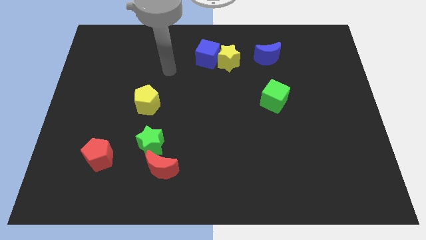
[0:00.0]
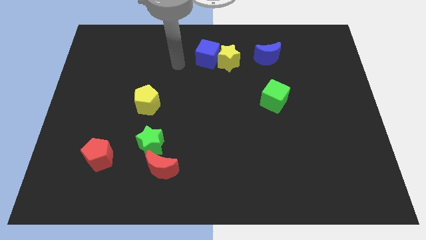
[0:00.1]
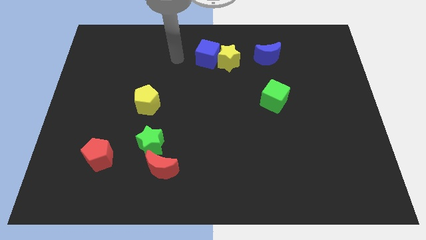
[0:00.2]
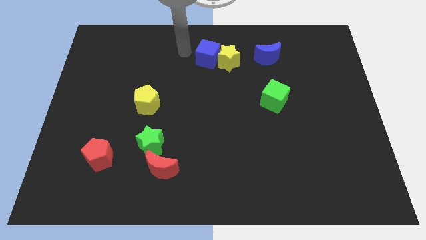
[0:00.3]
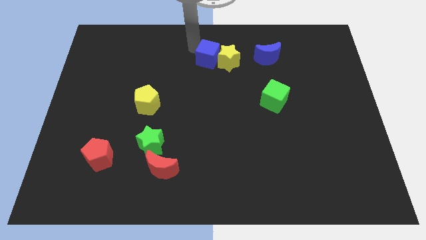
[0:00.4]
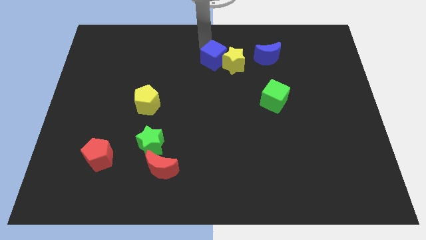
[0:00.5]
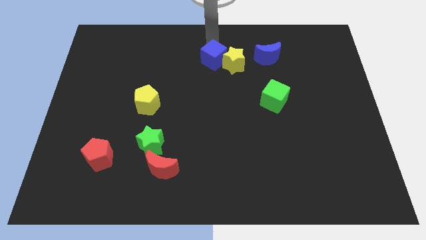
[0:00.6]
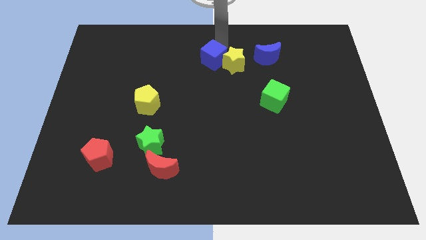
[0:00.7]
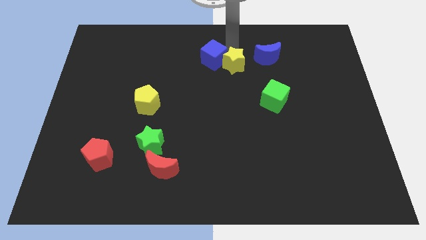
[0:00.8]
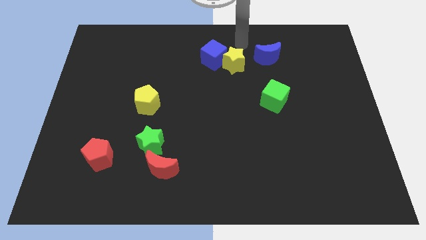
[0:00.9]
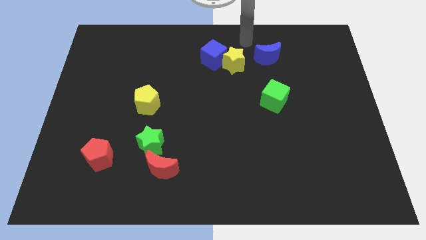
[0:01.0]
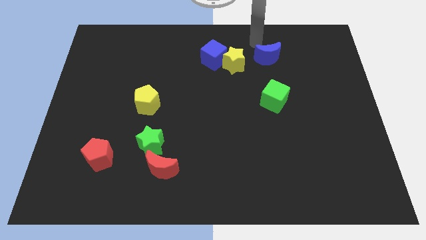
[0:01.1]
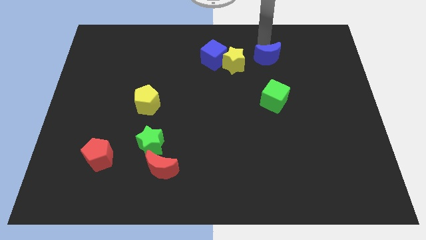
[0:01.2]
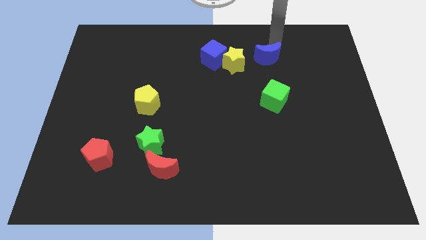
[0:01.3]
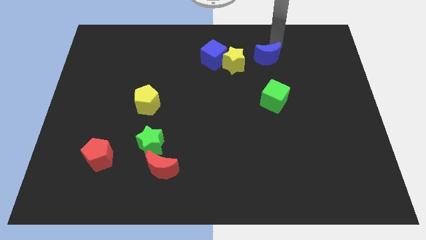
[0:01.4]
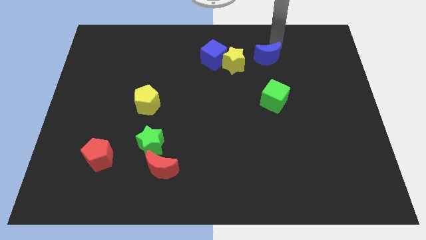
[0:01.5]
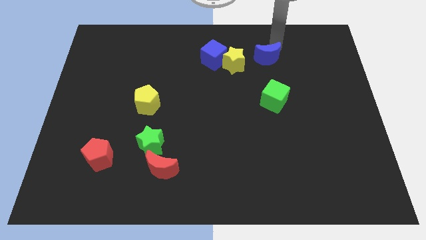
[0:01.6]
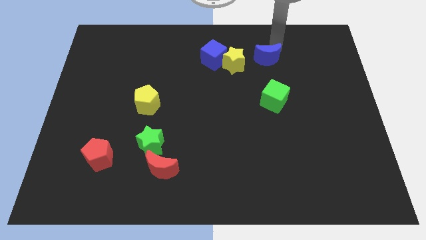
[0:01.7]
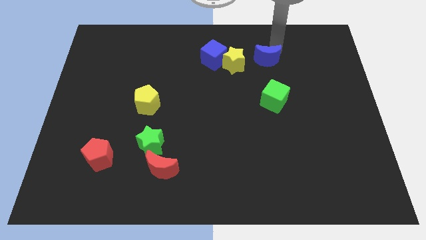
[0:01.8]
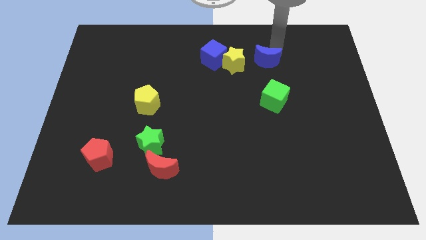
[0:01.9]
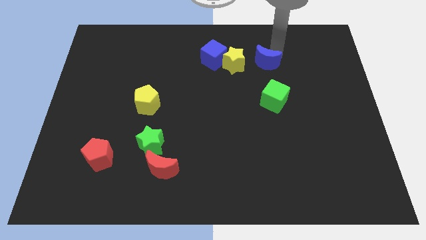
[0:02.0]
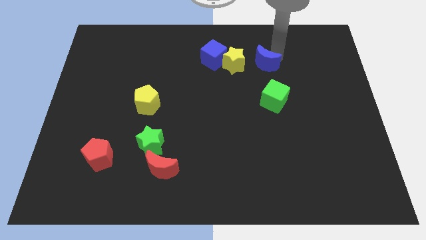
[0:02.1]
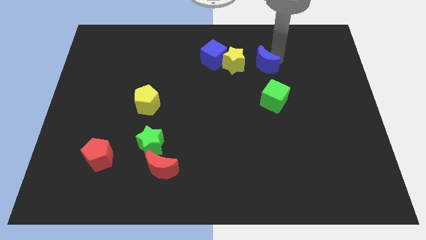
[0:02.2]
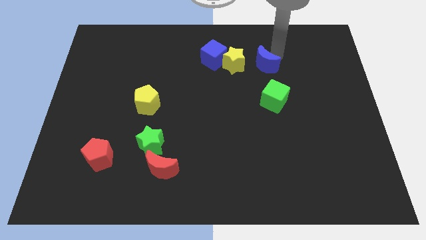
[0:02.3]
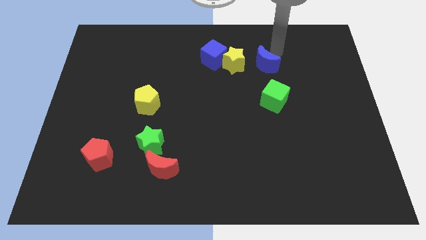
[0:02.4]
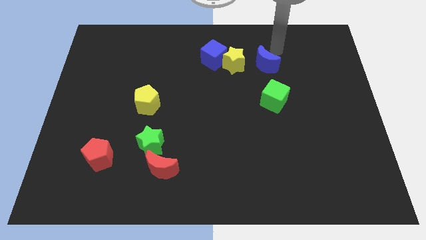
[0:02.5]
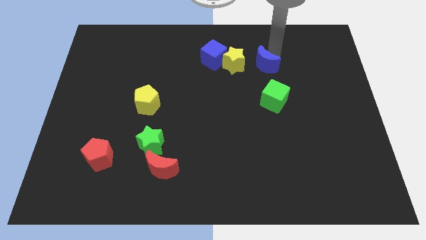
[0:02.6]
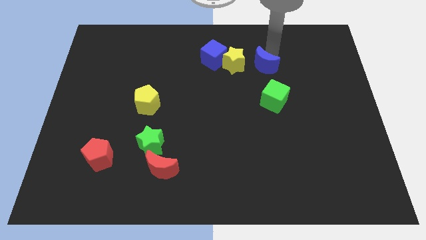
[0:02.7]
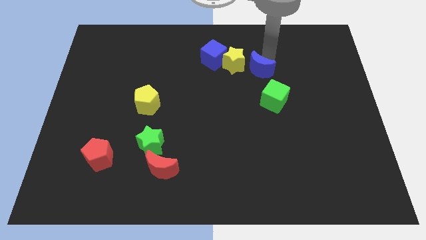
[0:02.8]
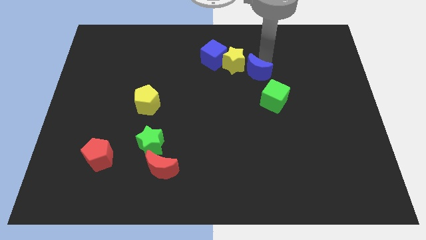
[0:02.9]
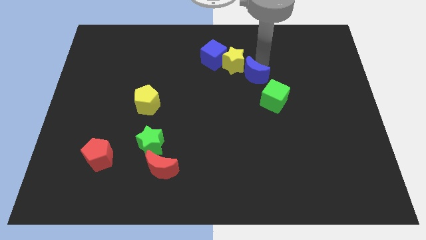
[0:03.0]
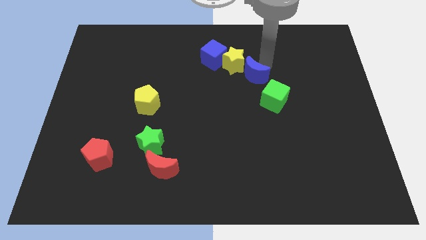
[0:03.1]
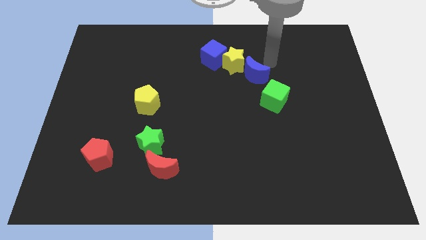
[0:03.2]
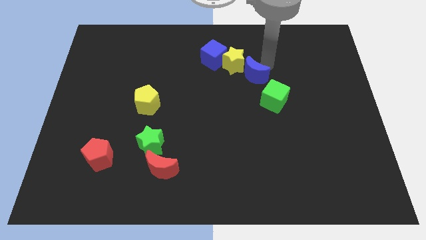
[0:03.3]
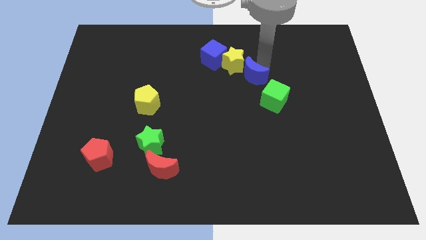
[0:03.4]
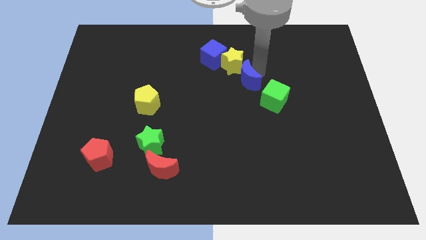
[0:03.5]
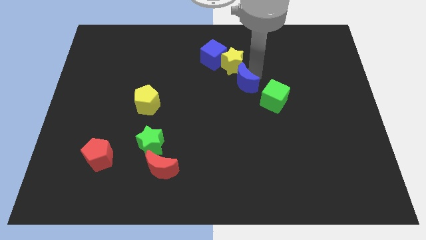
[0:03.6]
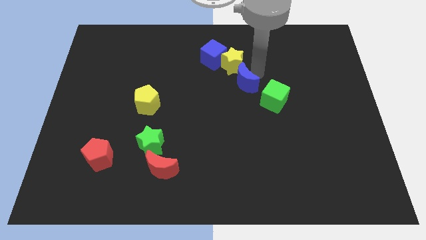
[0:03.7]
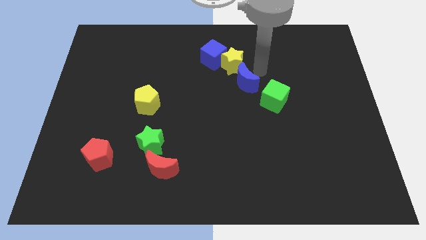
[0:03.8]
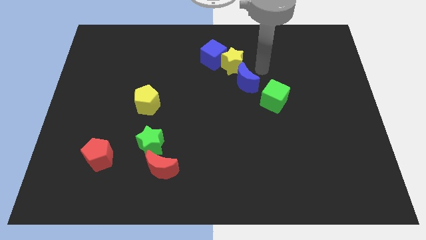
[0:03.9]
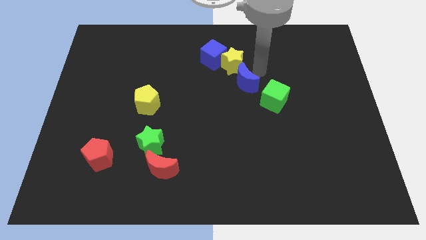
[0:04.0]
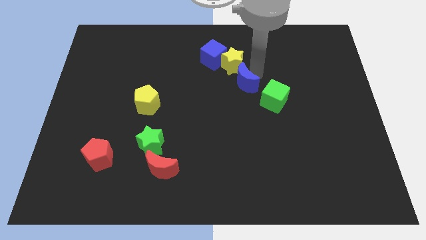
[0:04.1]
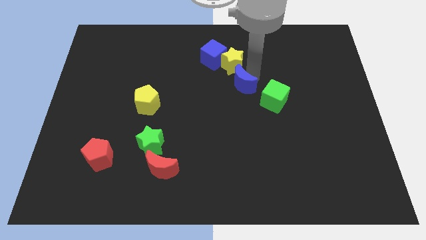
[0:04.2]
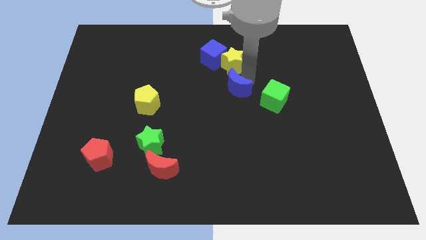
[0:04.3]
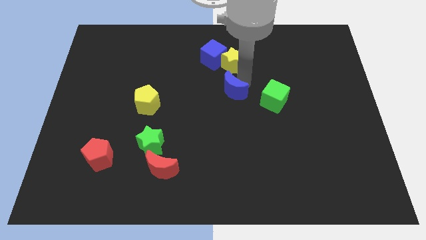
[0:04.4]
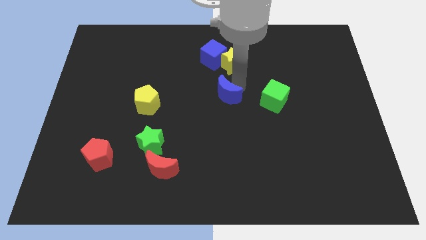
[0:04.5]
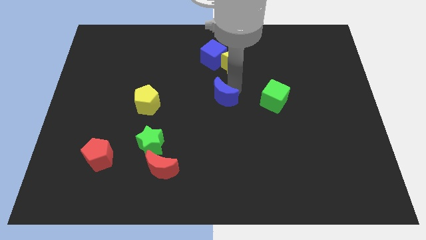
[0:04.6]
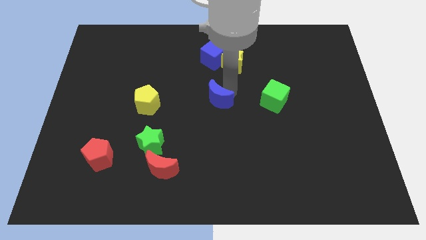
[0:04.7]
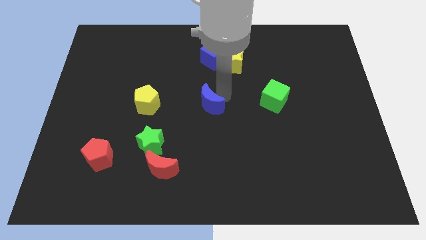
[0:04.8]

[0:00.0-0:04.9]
slide the blue moon diagonally down and to the left

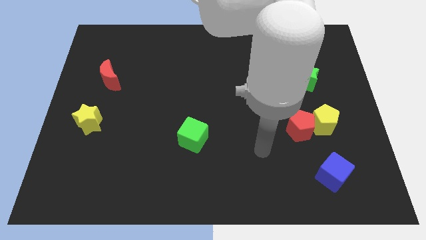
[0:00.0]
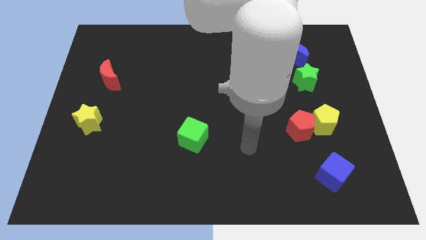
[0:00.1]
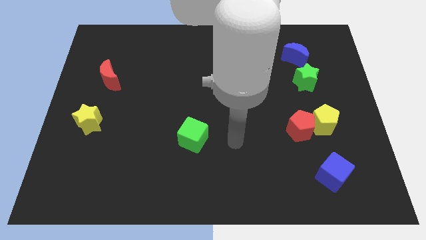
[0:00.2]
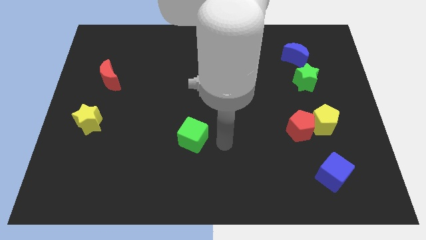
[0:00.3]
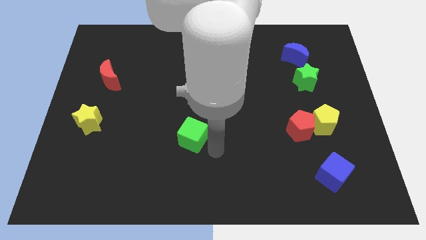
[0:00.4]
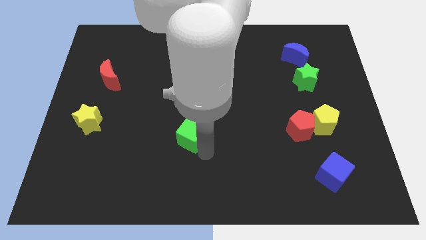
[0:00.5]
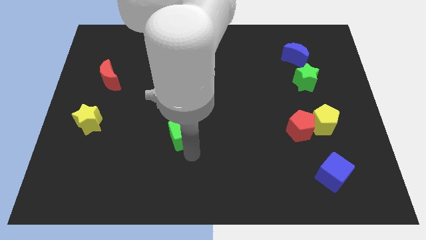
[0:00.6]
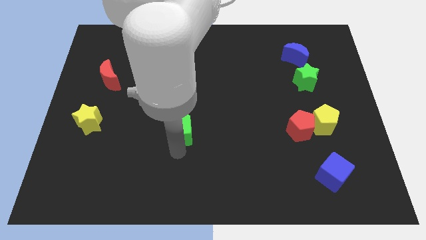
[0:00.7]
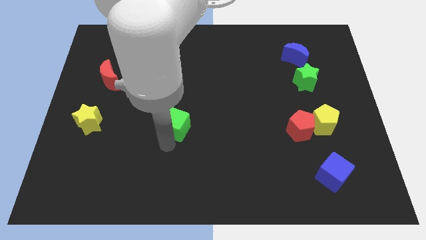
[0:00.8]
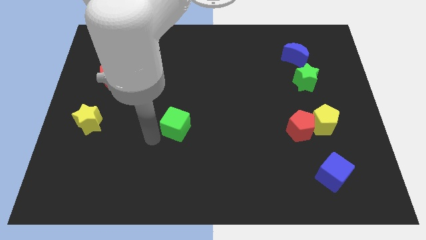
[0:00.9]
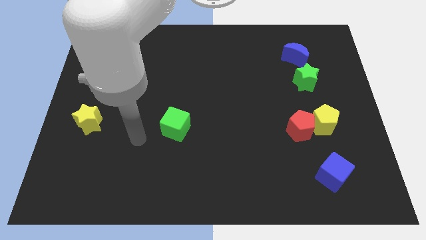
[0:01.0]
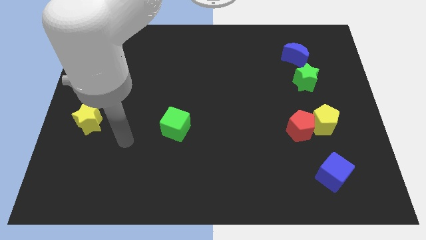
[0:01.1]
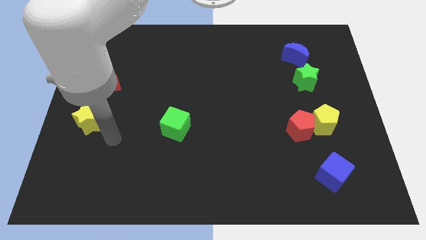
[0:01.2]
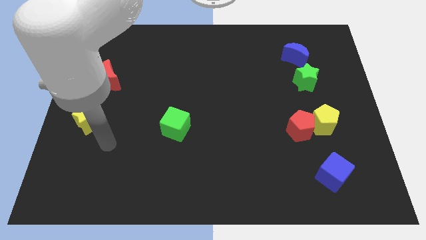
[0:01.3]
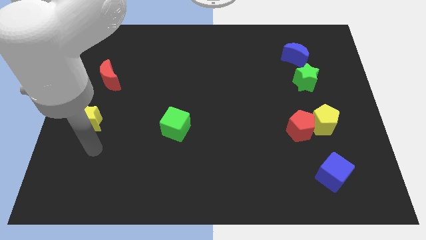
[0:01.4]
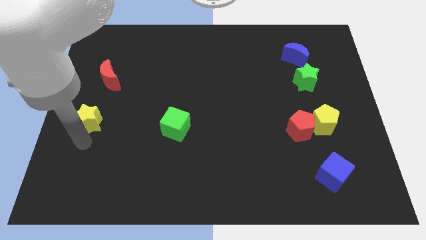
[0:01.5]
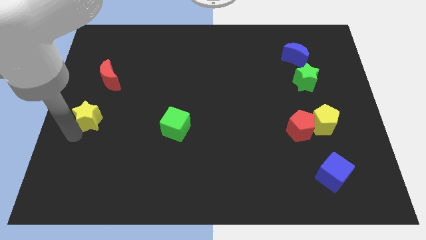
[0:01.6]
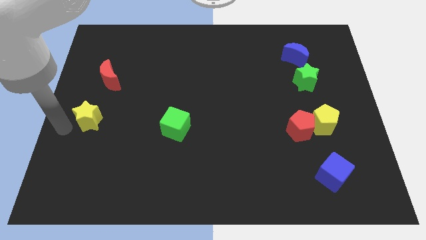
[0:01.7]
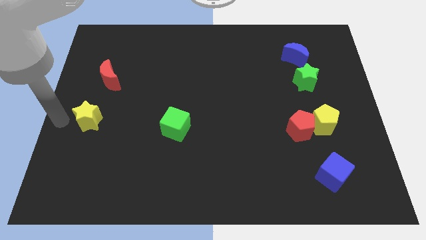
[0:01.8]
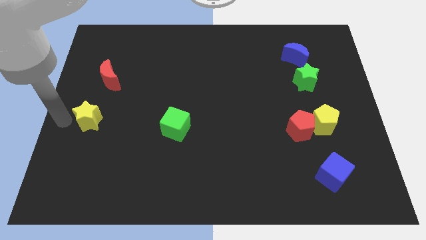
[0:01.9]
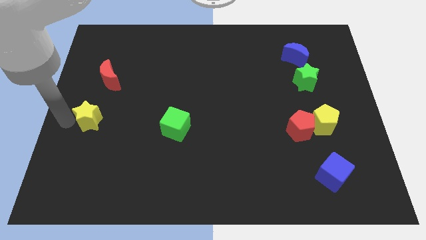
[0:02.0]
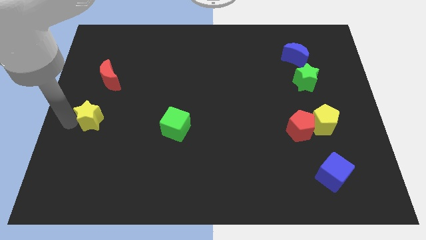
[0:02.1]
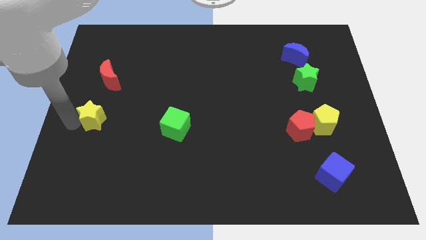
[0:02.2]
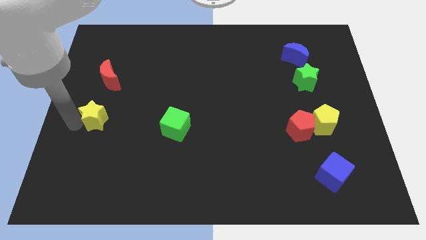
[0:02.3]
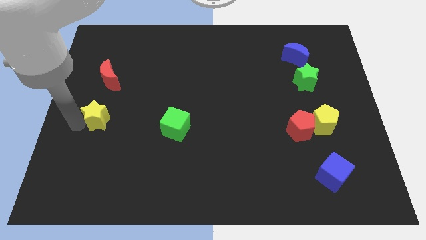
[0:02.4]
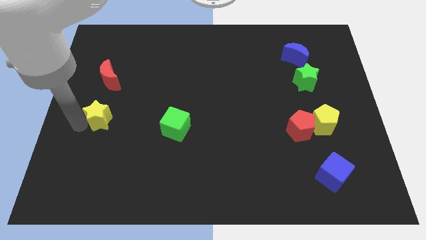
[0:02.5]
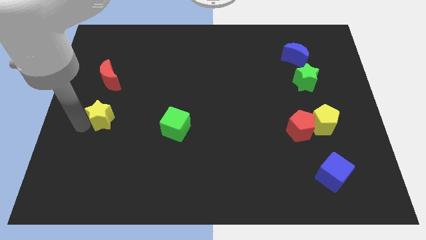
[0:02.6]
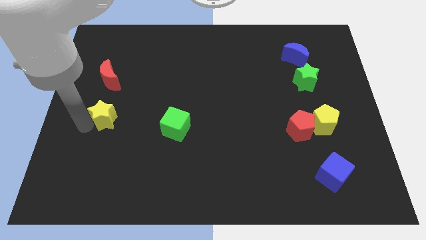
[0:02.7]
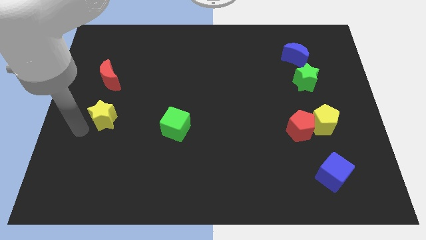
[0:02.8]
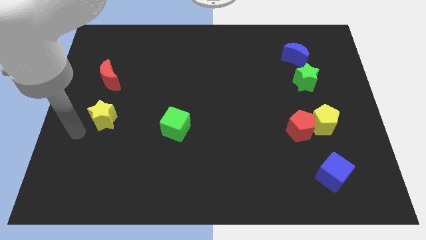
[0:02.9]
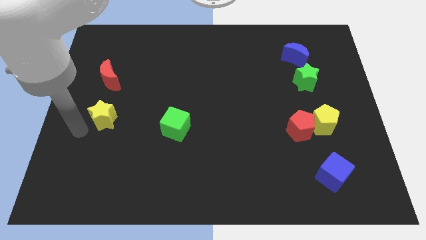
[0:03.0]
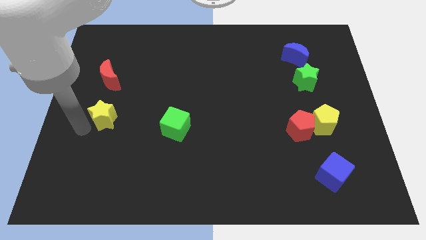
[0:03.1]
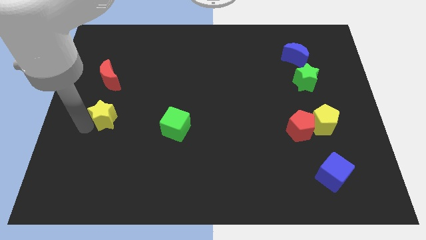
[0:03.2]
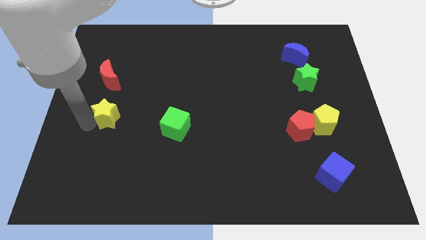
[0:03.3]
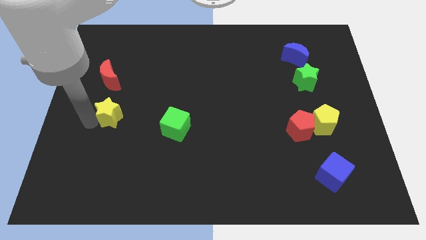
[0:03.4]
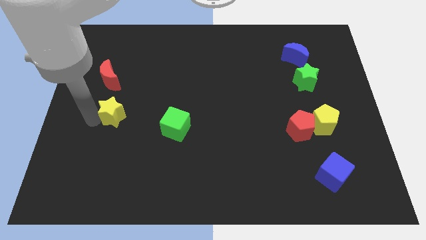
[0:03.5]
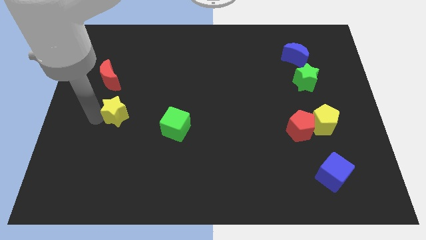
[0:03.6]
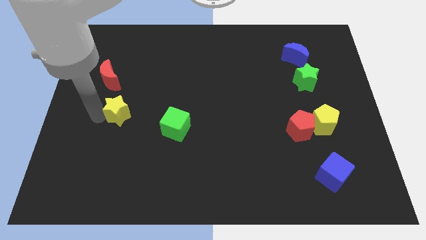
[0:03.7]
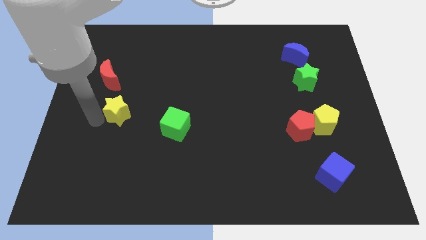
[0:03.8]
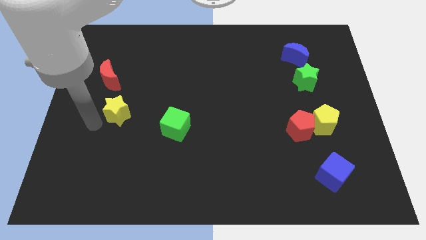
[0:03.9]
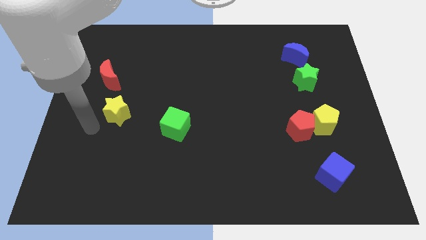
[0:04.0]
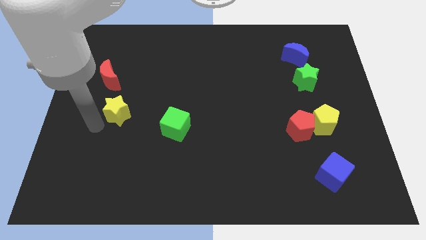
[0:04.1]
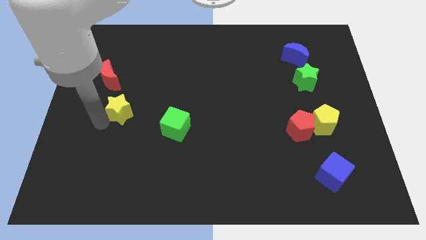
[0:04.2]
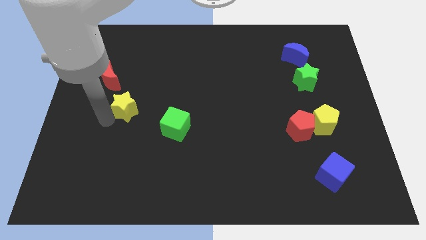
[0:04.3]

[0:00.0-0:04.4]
slide the yellow star slightly upwards and then right
